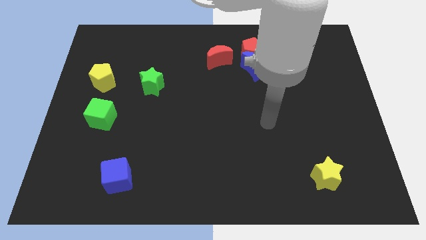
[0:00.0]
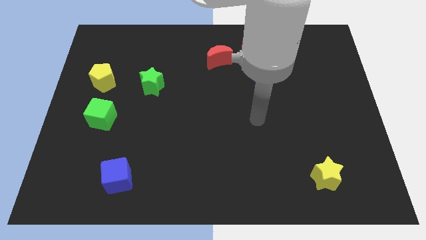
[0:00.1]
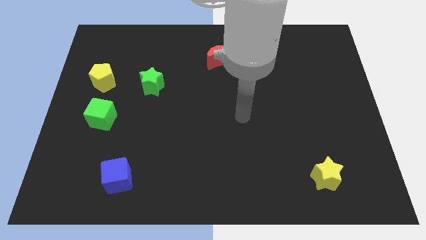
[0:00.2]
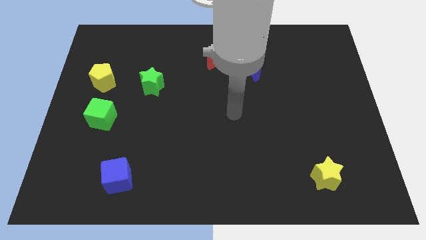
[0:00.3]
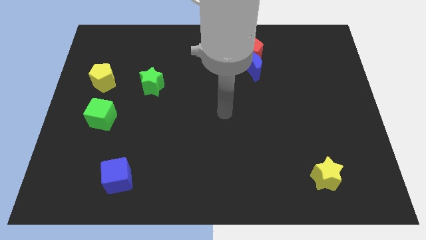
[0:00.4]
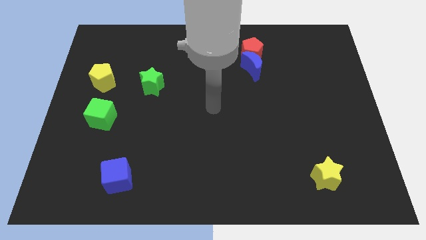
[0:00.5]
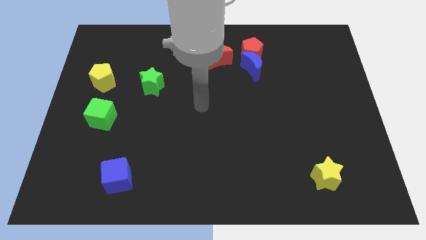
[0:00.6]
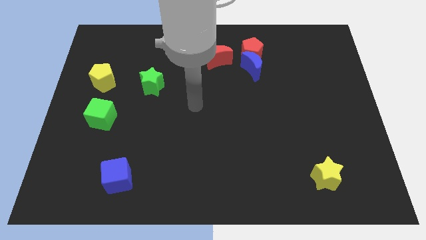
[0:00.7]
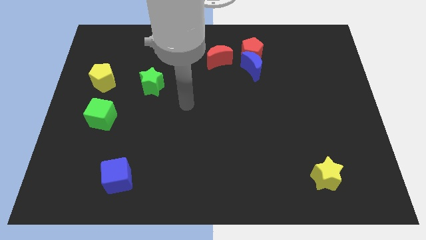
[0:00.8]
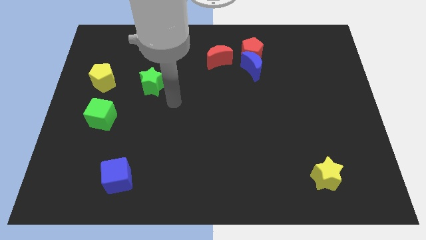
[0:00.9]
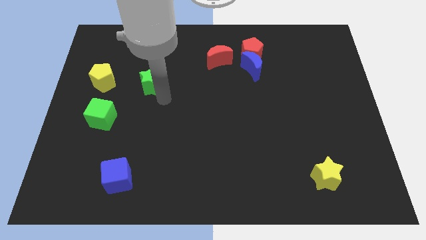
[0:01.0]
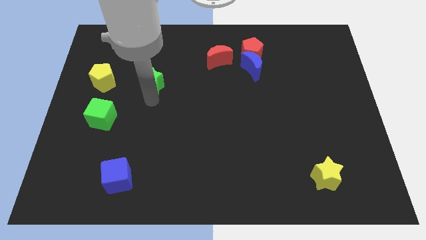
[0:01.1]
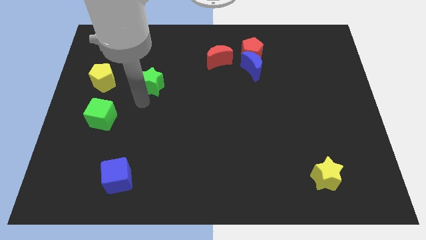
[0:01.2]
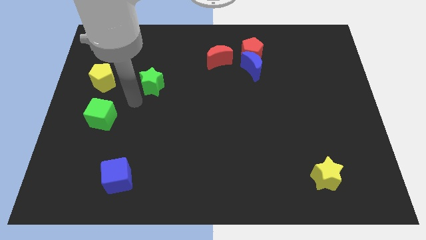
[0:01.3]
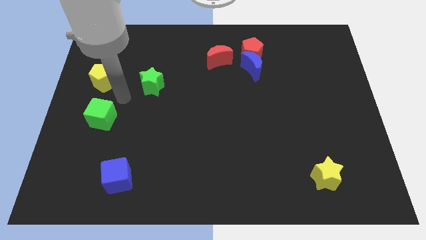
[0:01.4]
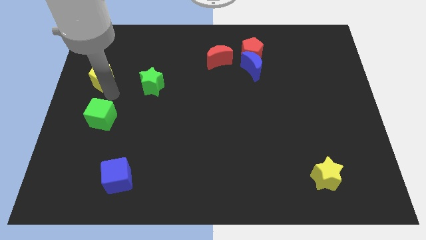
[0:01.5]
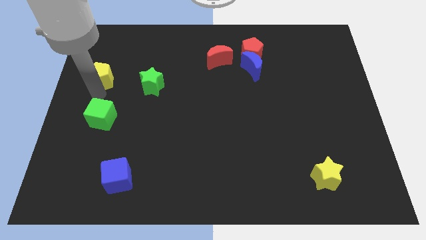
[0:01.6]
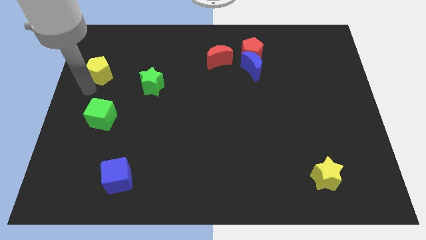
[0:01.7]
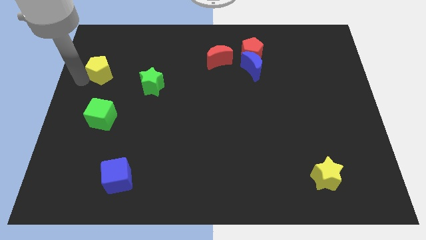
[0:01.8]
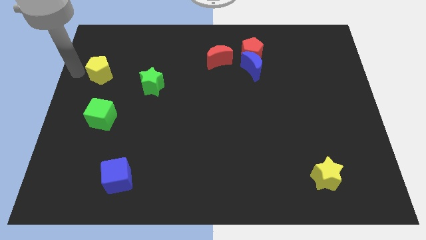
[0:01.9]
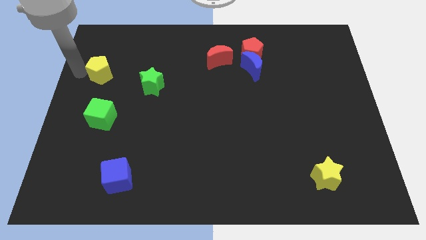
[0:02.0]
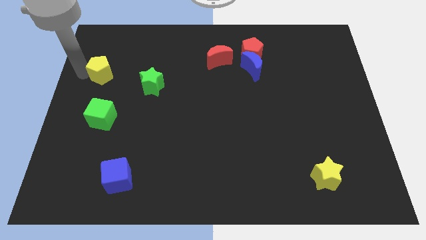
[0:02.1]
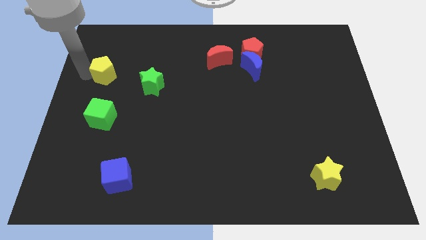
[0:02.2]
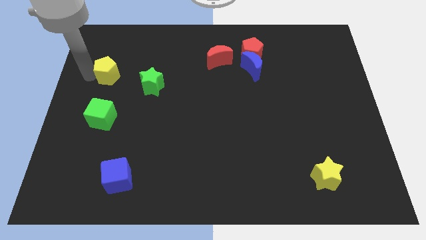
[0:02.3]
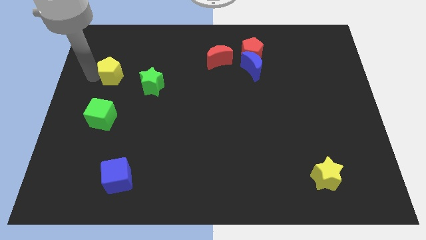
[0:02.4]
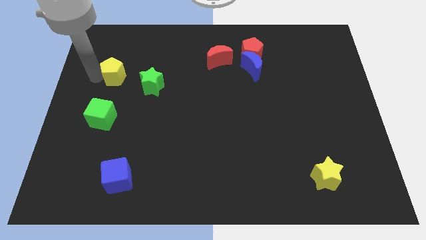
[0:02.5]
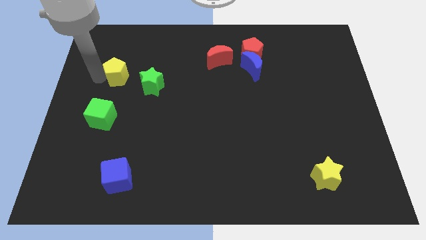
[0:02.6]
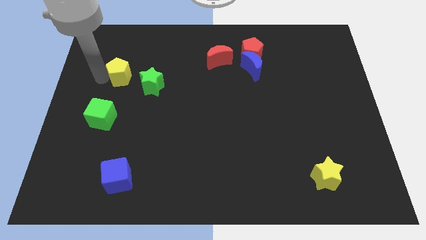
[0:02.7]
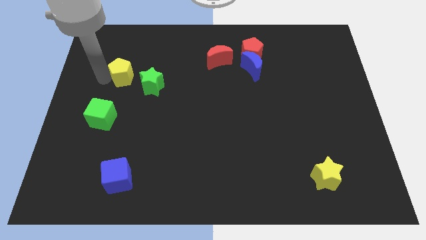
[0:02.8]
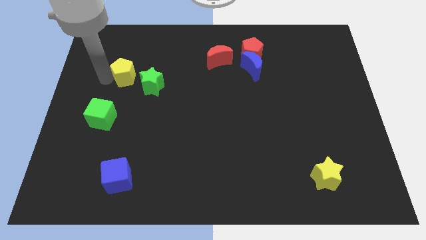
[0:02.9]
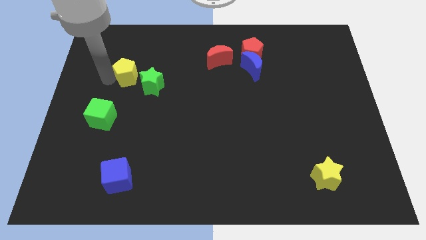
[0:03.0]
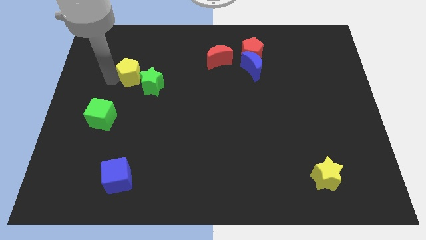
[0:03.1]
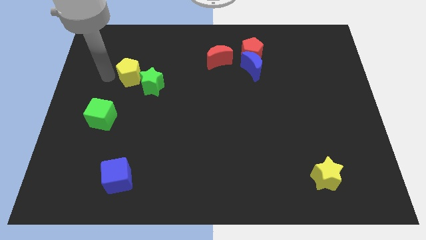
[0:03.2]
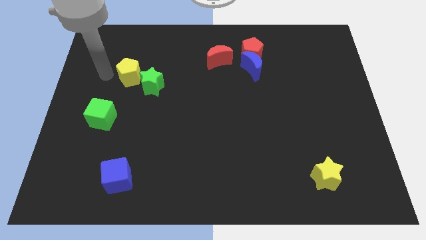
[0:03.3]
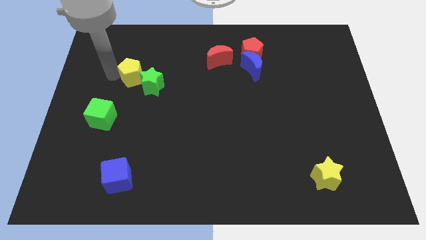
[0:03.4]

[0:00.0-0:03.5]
move the yellow pentagon to the right a bit

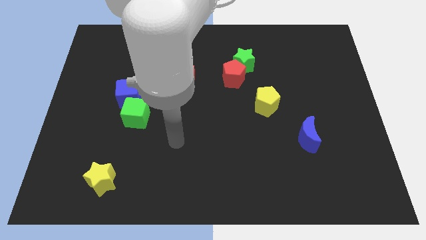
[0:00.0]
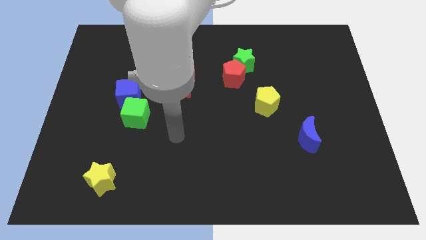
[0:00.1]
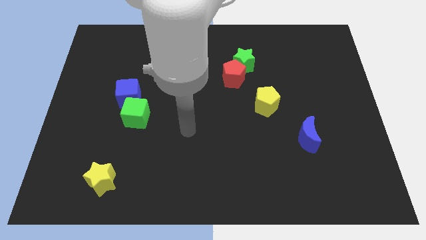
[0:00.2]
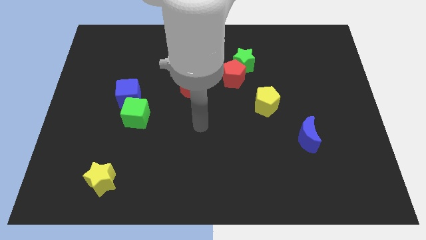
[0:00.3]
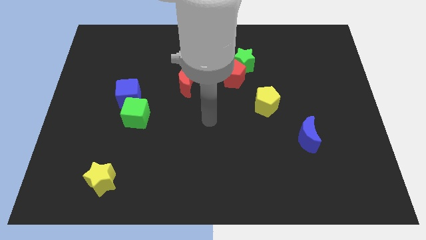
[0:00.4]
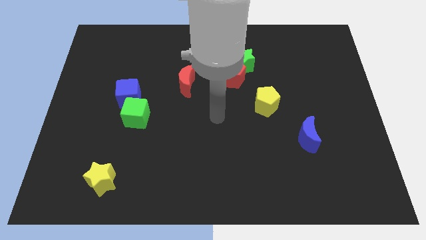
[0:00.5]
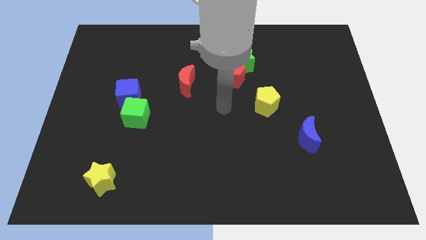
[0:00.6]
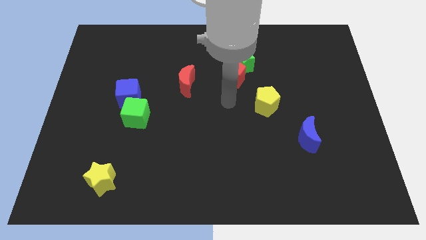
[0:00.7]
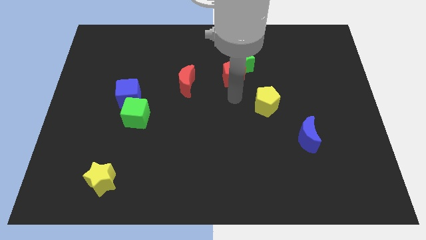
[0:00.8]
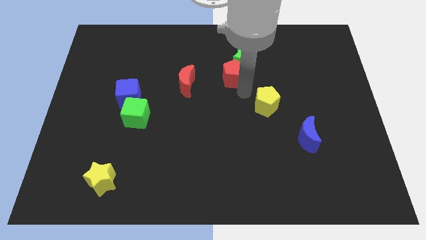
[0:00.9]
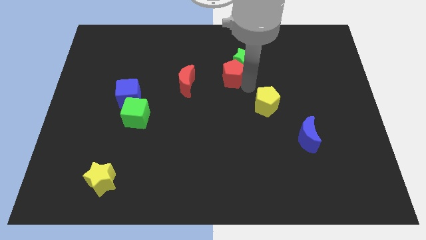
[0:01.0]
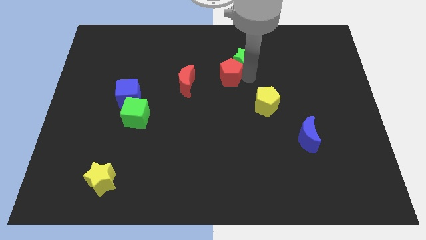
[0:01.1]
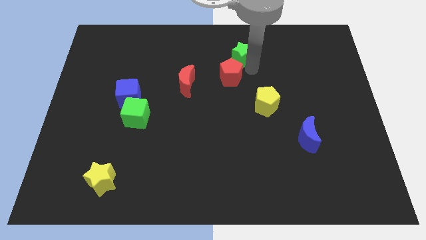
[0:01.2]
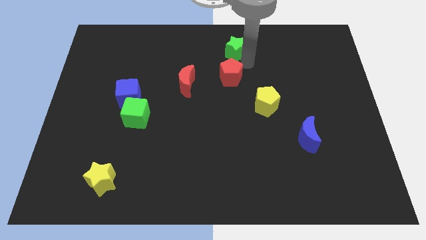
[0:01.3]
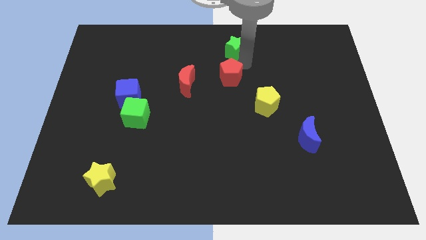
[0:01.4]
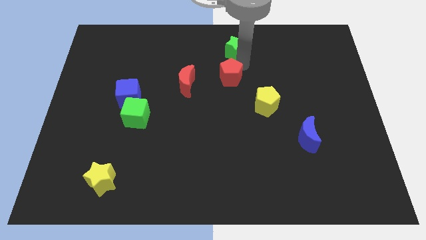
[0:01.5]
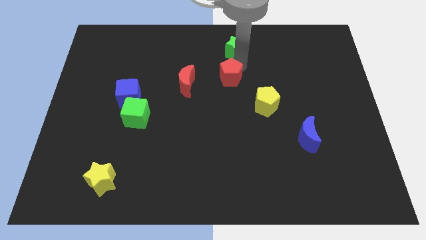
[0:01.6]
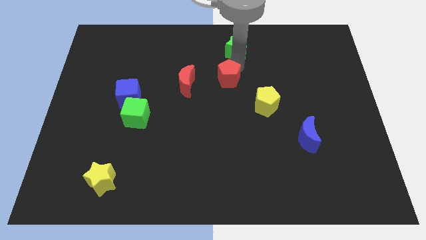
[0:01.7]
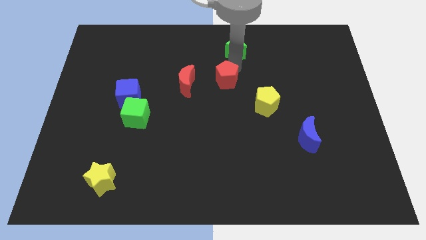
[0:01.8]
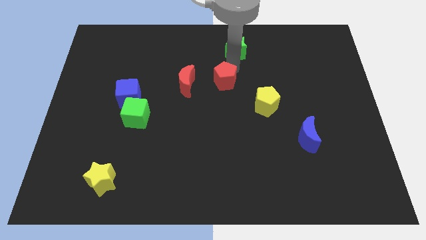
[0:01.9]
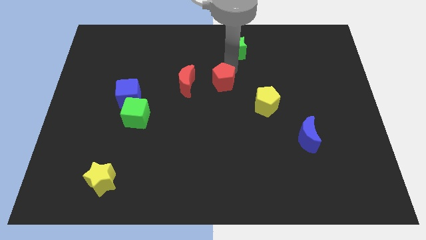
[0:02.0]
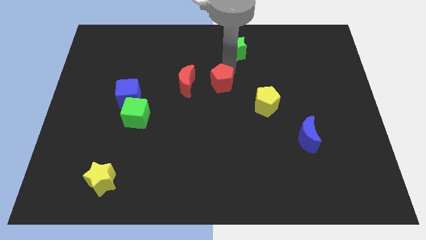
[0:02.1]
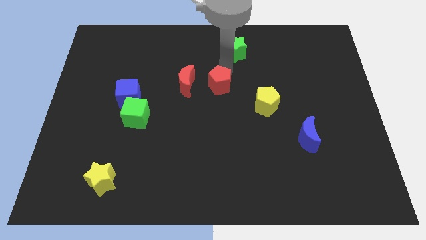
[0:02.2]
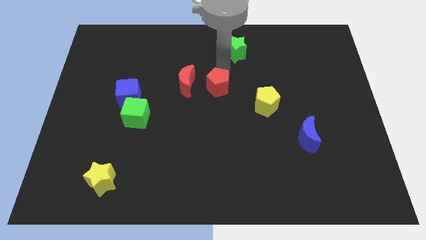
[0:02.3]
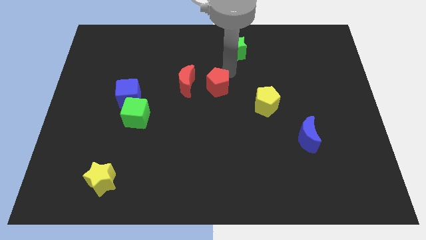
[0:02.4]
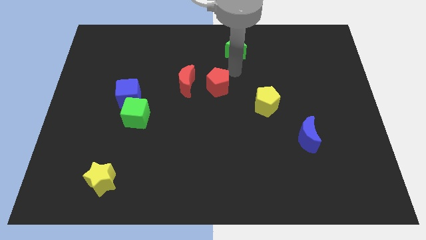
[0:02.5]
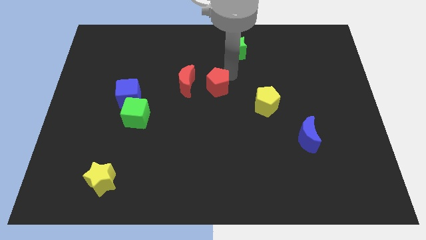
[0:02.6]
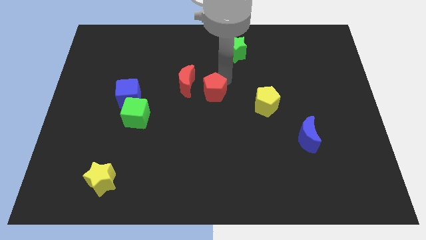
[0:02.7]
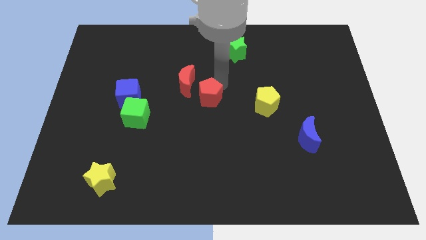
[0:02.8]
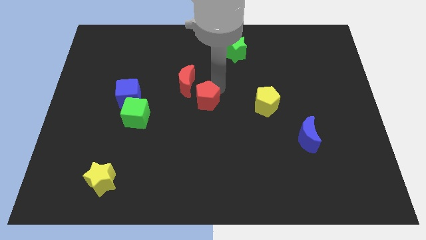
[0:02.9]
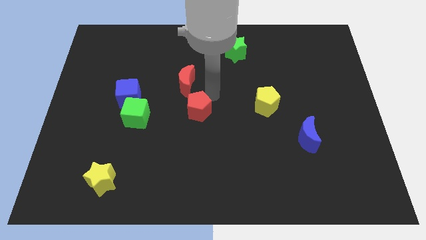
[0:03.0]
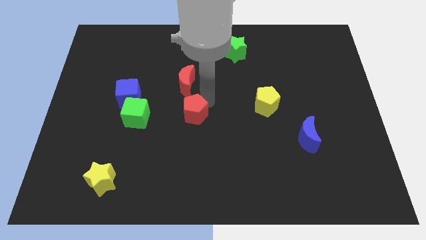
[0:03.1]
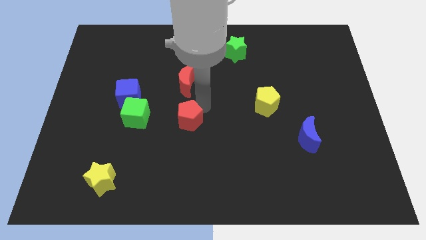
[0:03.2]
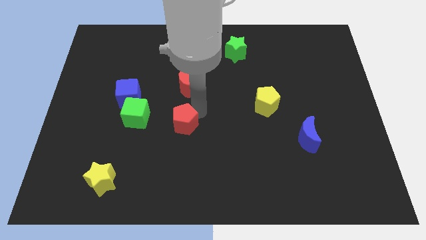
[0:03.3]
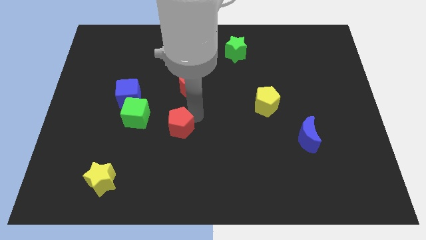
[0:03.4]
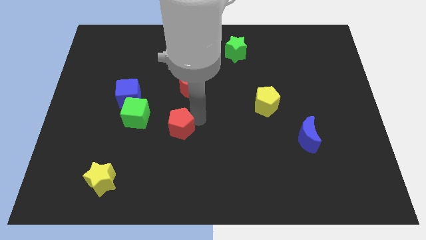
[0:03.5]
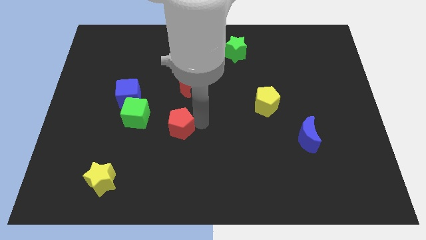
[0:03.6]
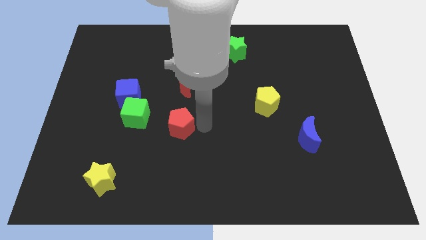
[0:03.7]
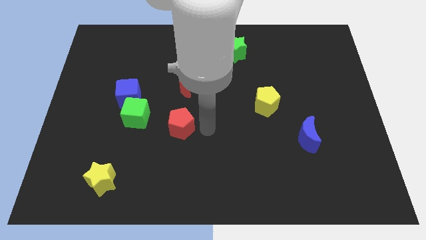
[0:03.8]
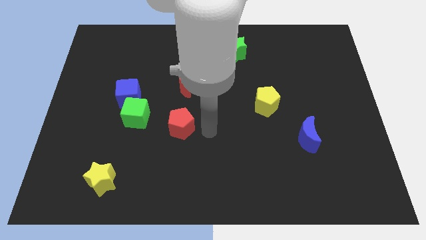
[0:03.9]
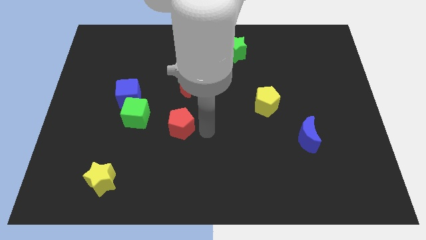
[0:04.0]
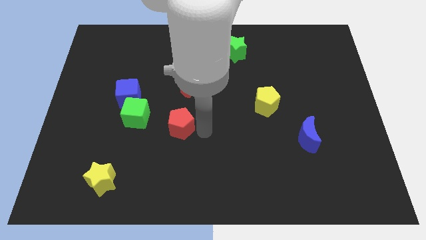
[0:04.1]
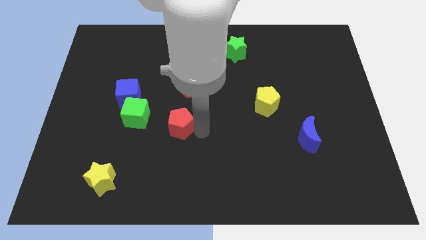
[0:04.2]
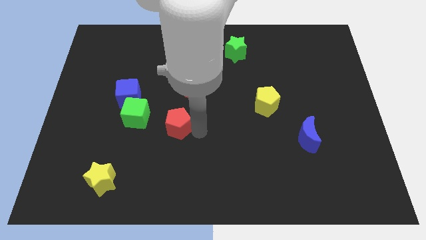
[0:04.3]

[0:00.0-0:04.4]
move the red pentagon downwards and left

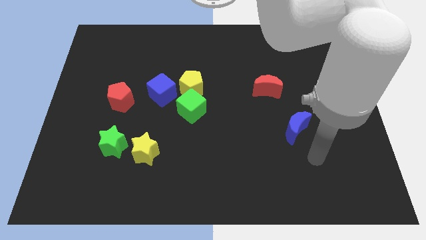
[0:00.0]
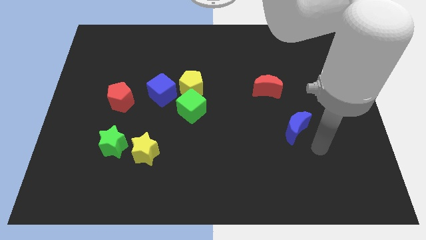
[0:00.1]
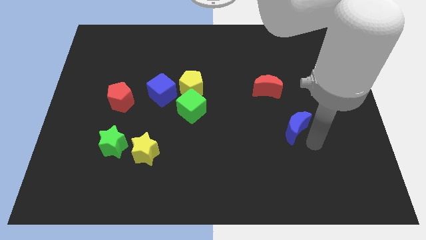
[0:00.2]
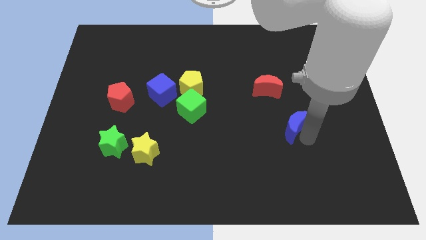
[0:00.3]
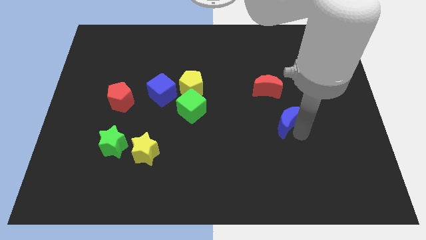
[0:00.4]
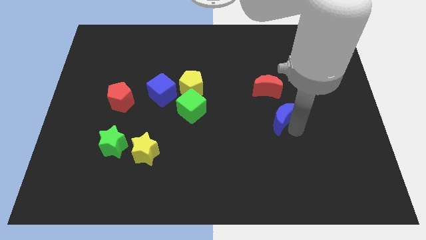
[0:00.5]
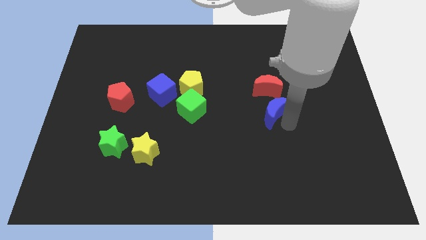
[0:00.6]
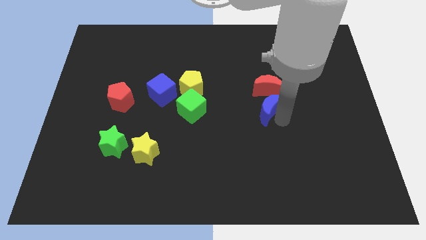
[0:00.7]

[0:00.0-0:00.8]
slide the blue moon a little bit upwards and to the left
